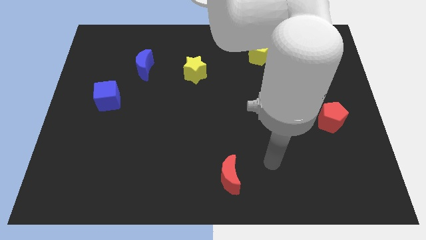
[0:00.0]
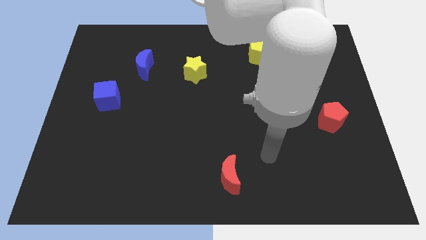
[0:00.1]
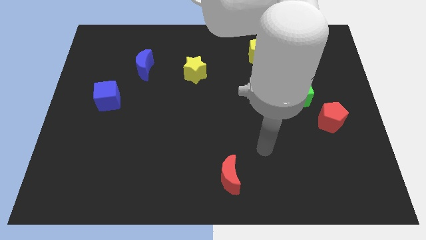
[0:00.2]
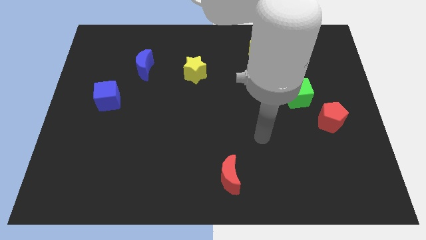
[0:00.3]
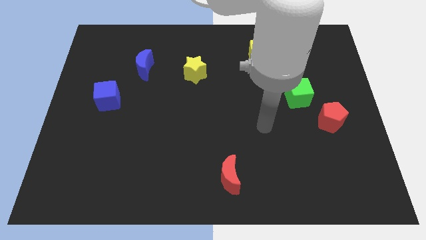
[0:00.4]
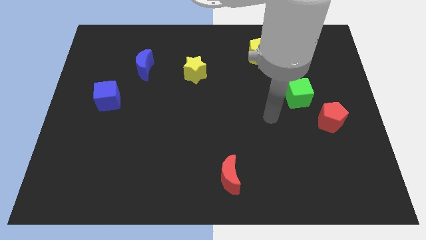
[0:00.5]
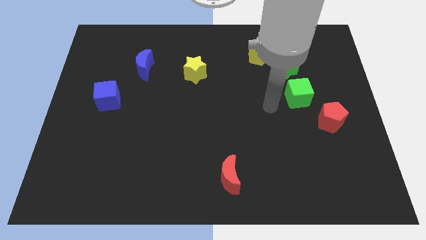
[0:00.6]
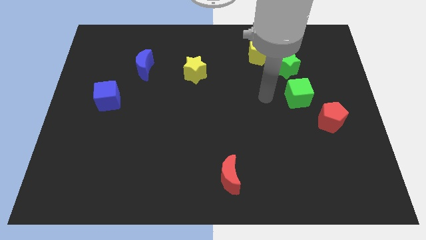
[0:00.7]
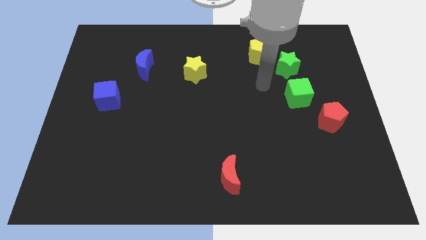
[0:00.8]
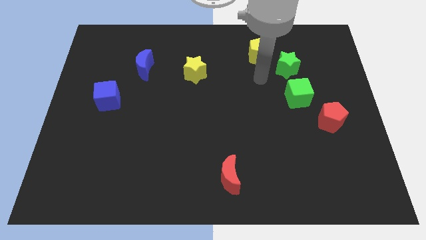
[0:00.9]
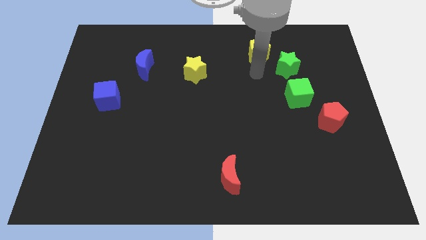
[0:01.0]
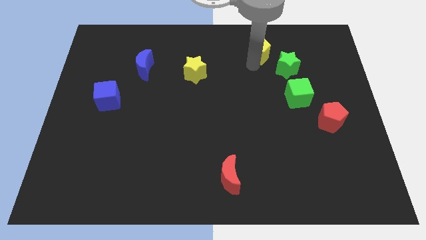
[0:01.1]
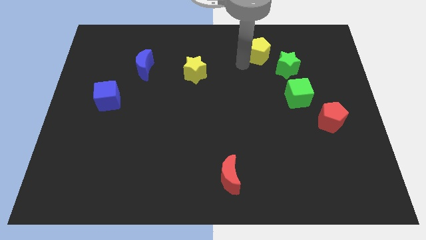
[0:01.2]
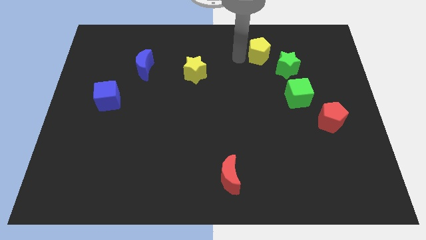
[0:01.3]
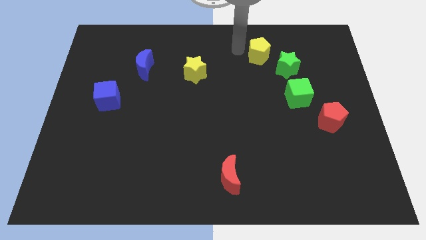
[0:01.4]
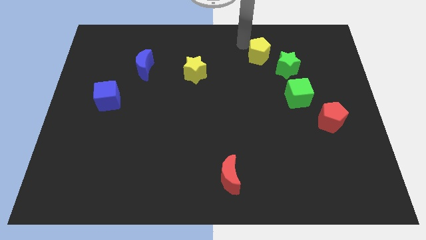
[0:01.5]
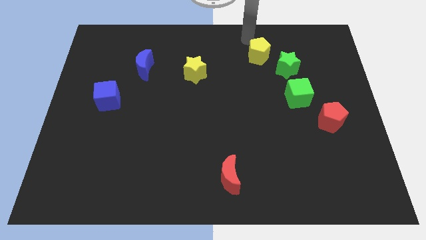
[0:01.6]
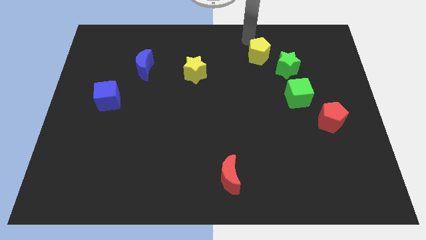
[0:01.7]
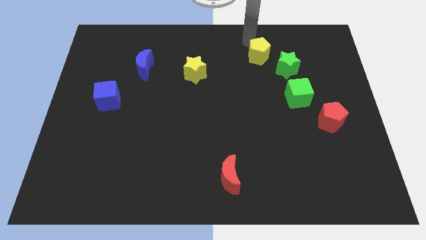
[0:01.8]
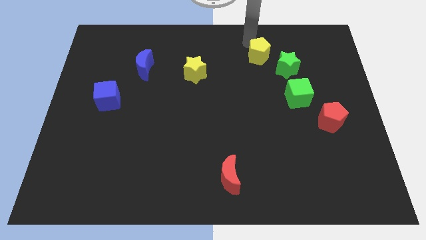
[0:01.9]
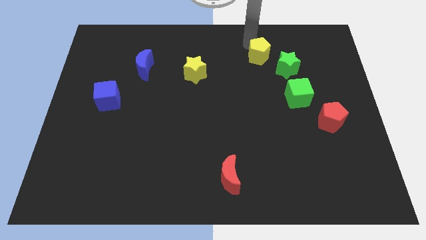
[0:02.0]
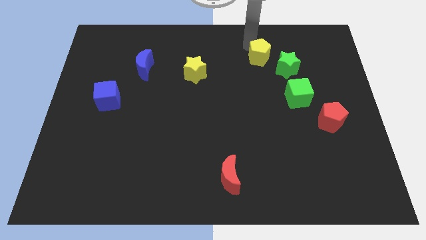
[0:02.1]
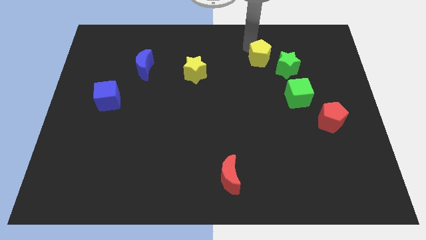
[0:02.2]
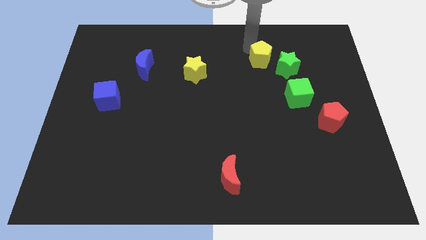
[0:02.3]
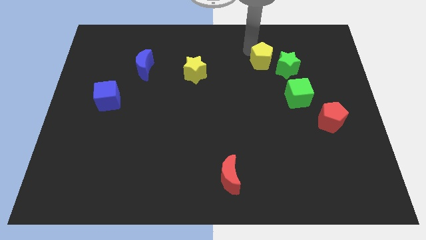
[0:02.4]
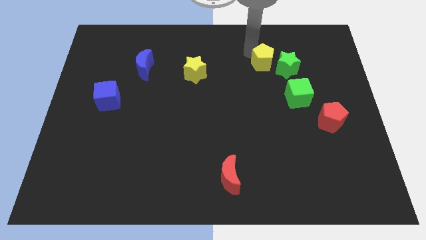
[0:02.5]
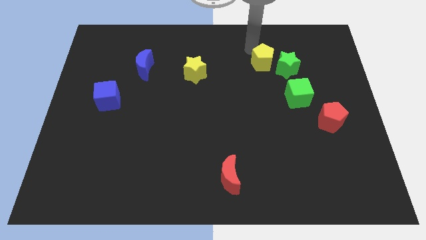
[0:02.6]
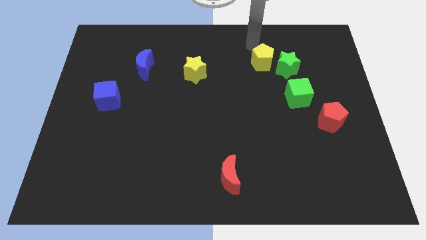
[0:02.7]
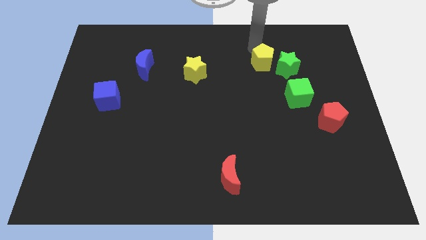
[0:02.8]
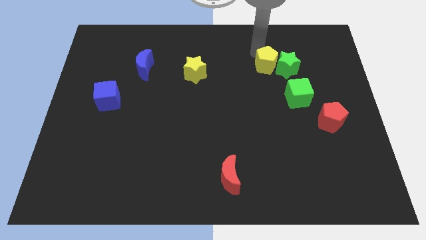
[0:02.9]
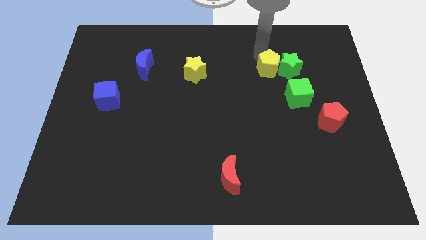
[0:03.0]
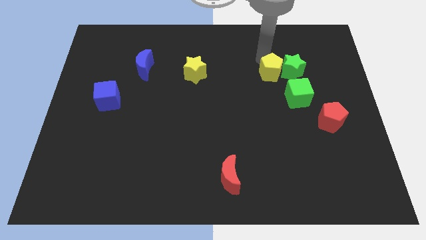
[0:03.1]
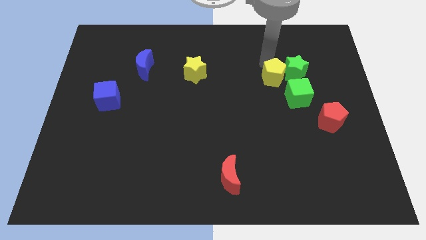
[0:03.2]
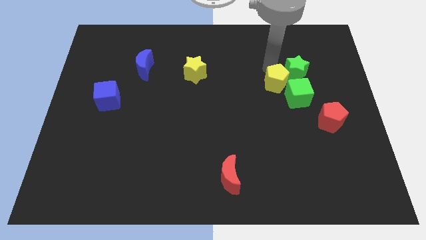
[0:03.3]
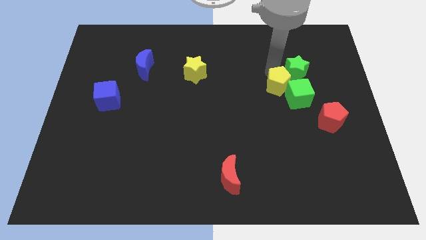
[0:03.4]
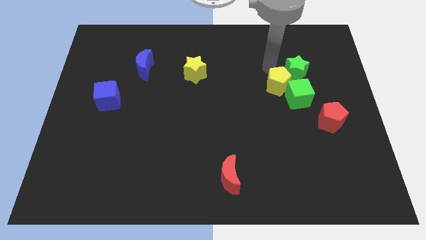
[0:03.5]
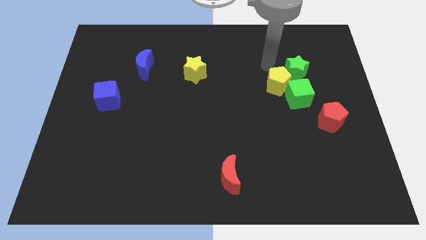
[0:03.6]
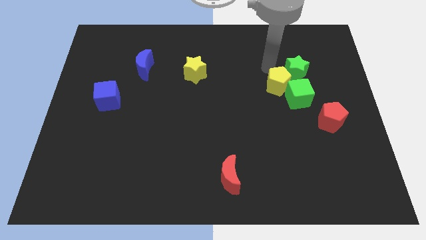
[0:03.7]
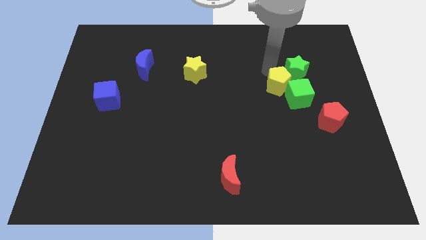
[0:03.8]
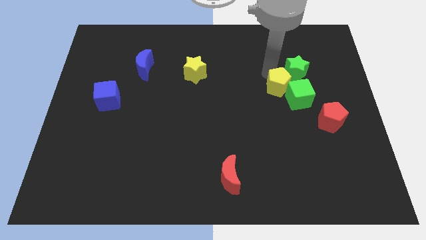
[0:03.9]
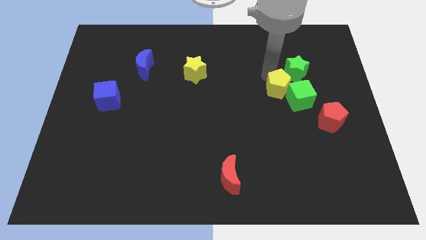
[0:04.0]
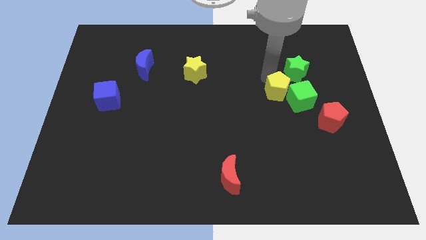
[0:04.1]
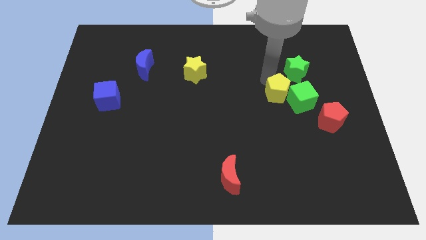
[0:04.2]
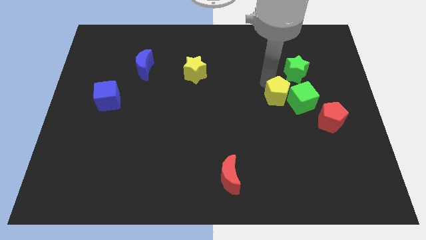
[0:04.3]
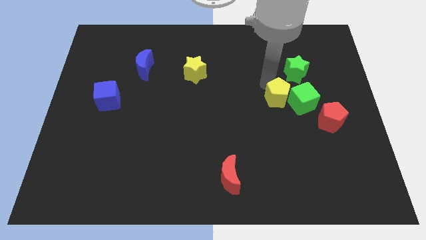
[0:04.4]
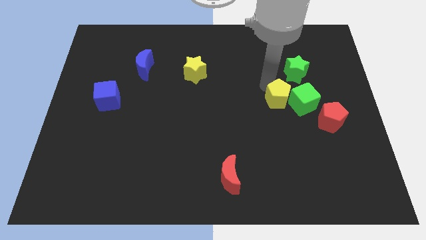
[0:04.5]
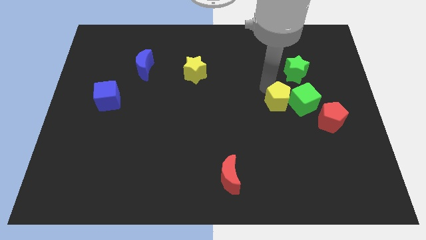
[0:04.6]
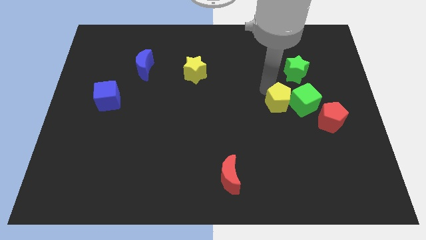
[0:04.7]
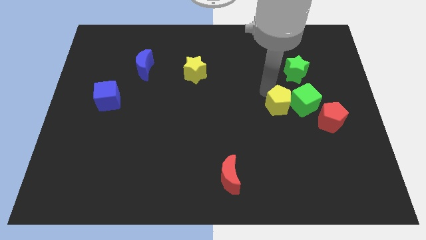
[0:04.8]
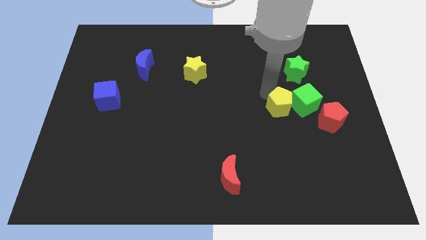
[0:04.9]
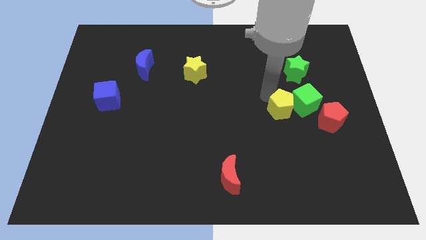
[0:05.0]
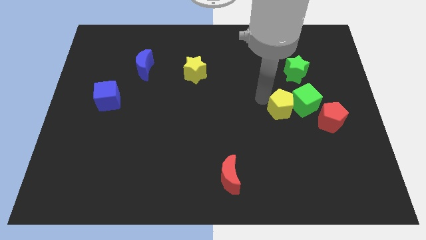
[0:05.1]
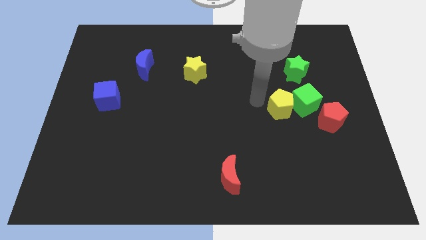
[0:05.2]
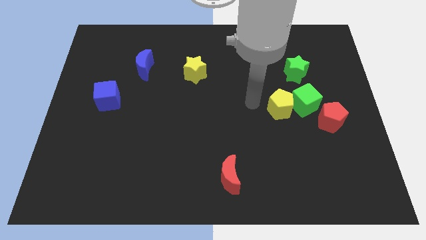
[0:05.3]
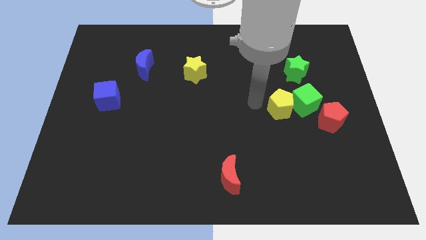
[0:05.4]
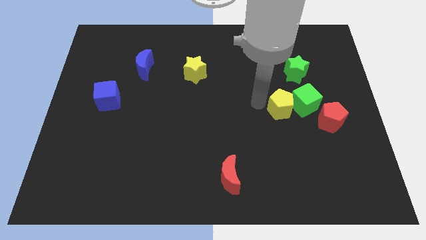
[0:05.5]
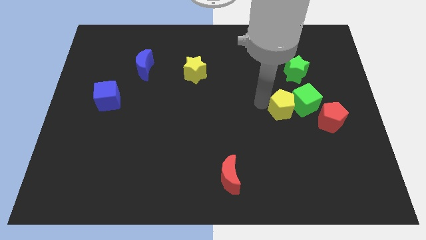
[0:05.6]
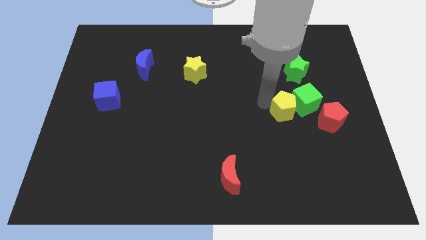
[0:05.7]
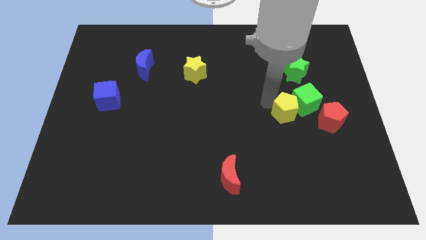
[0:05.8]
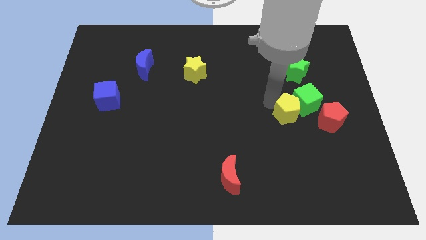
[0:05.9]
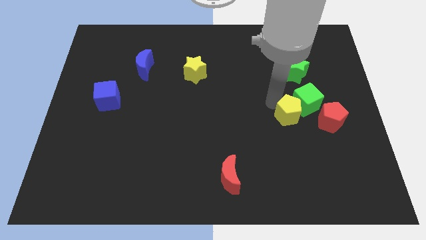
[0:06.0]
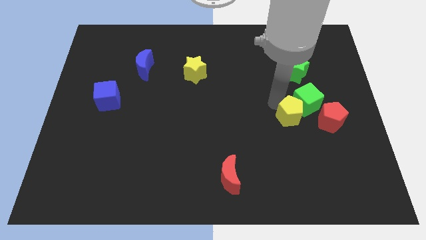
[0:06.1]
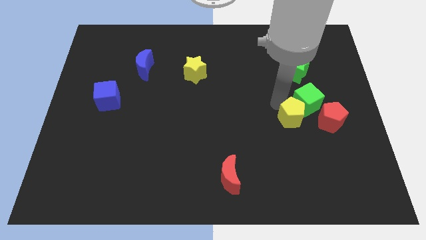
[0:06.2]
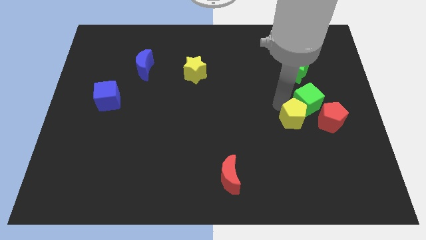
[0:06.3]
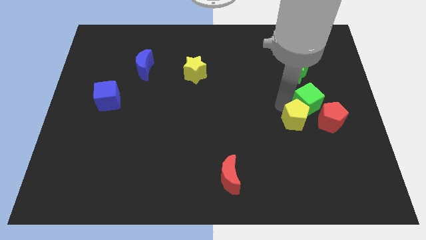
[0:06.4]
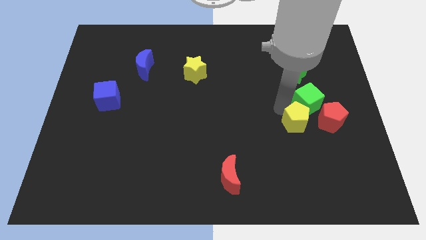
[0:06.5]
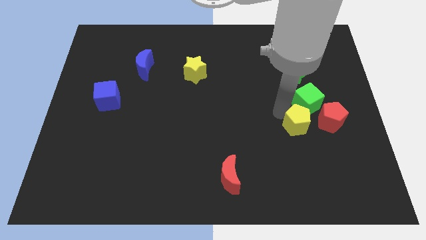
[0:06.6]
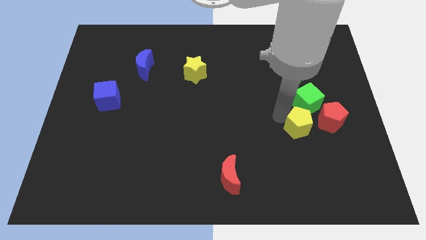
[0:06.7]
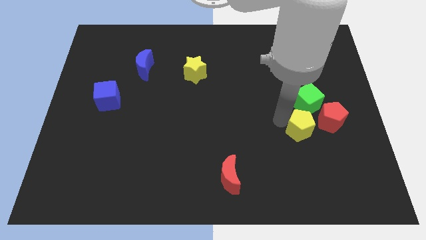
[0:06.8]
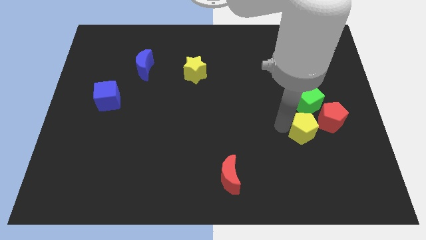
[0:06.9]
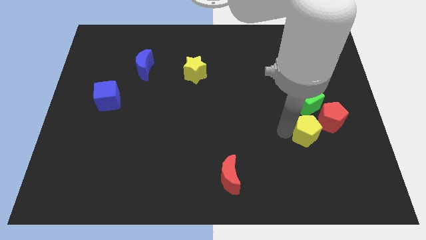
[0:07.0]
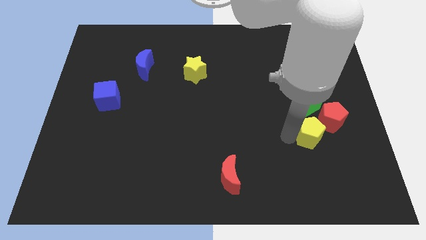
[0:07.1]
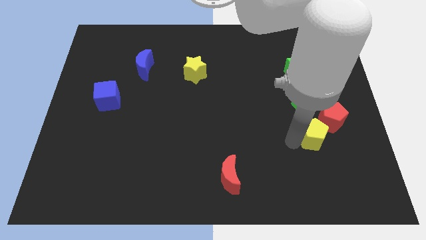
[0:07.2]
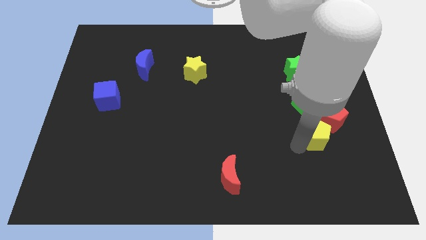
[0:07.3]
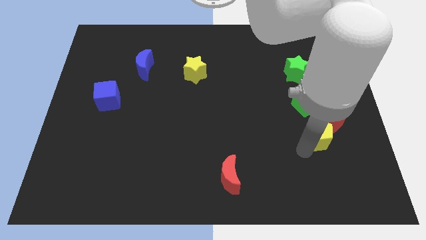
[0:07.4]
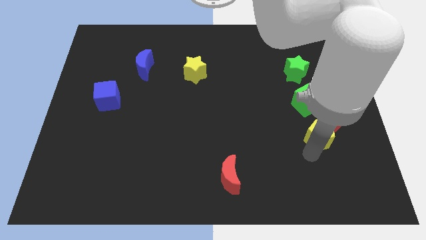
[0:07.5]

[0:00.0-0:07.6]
slide the yellow pentagon next to the red pentagon
